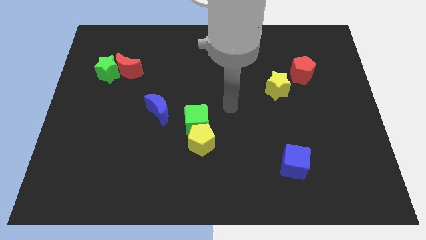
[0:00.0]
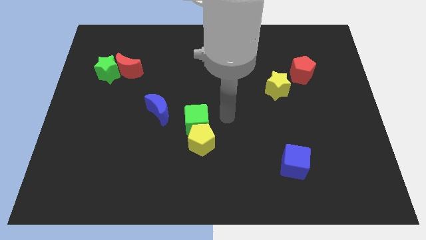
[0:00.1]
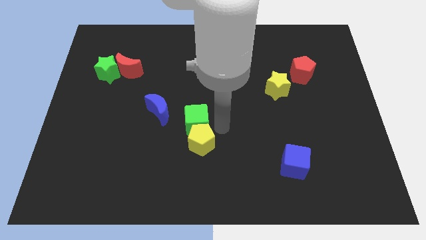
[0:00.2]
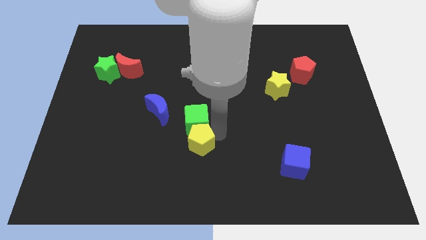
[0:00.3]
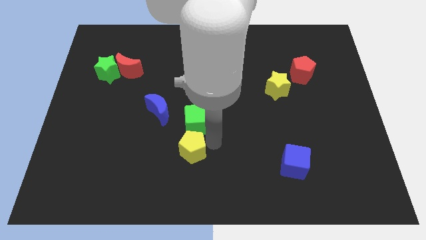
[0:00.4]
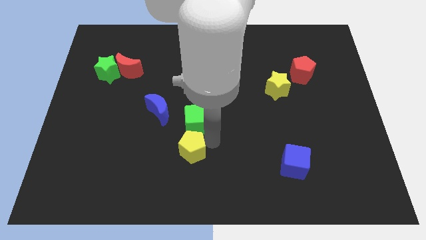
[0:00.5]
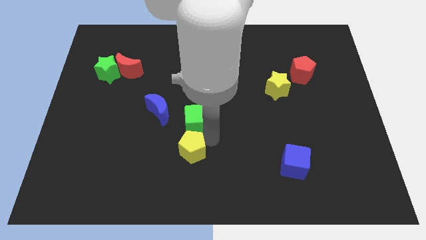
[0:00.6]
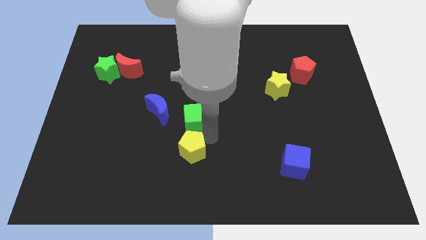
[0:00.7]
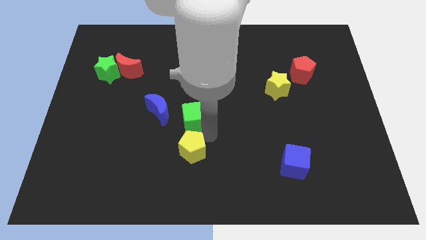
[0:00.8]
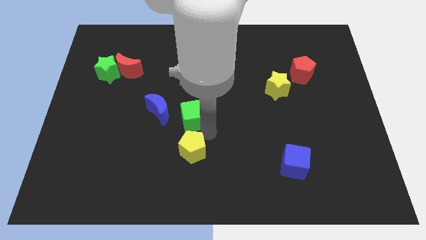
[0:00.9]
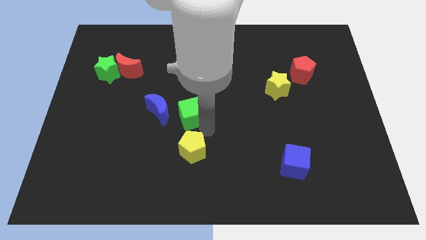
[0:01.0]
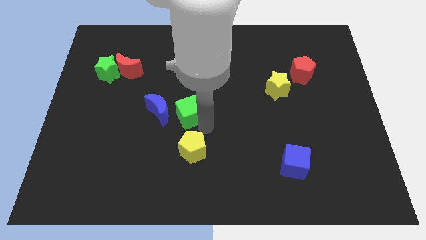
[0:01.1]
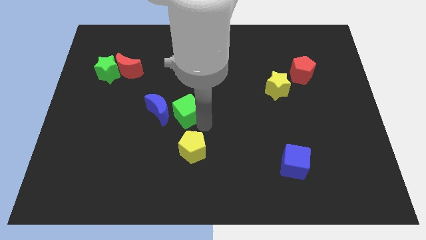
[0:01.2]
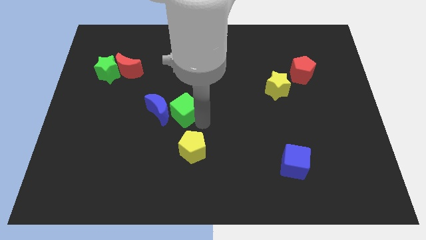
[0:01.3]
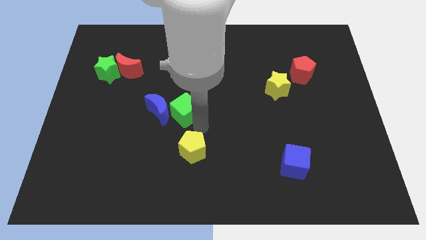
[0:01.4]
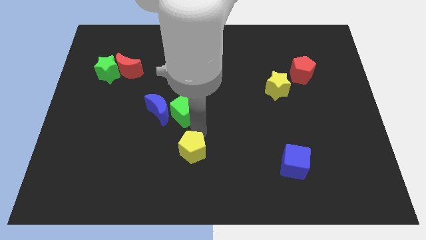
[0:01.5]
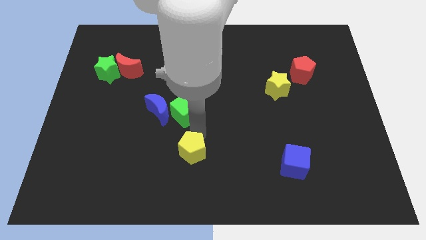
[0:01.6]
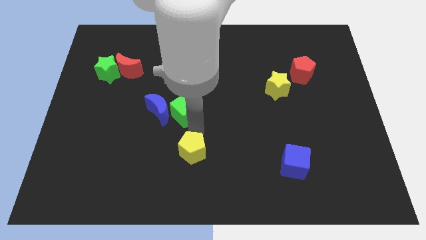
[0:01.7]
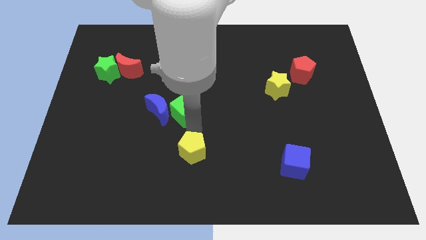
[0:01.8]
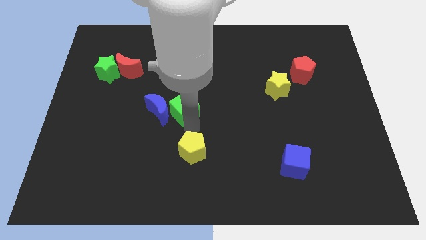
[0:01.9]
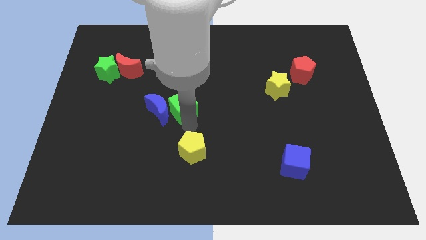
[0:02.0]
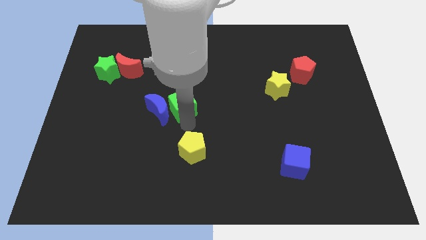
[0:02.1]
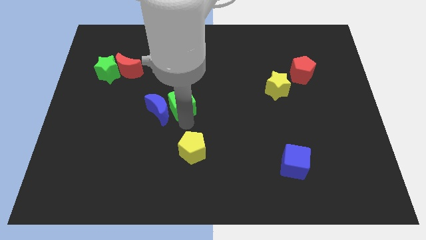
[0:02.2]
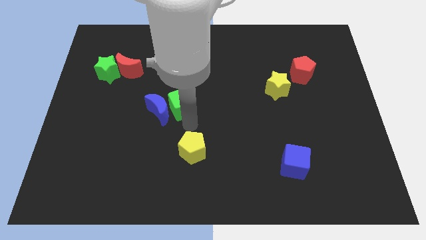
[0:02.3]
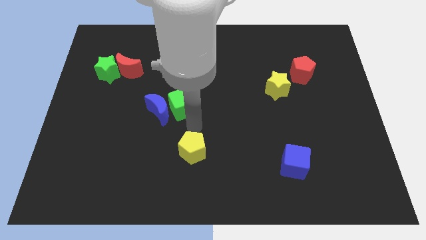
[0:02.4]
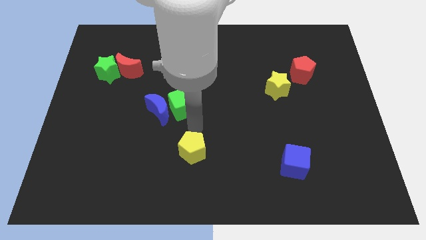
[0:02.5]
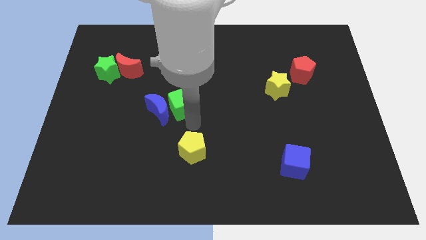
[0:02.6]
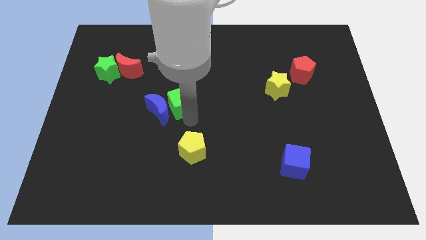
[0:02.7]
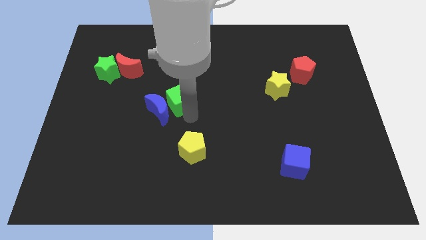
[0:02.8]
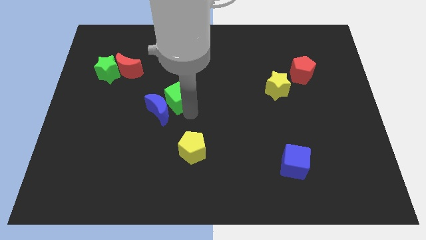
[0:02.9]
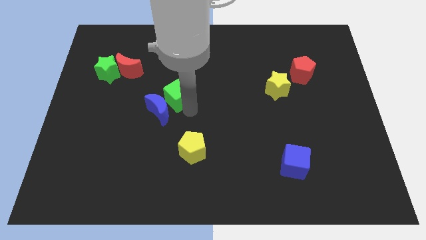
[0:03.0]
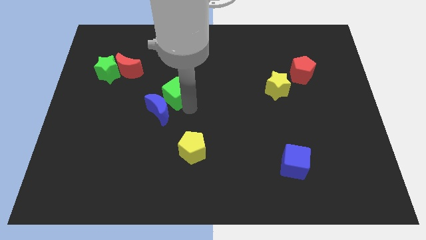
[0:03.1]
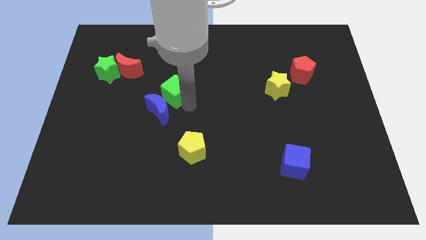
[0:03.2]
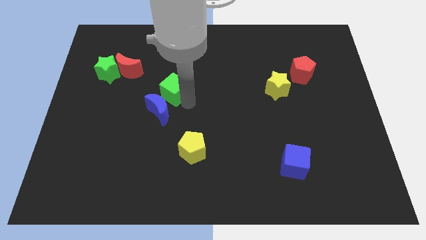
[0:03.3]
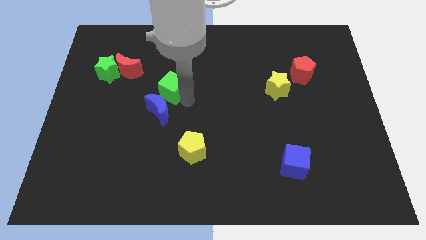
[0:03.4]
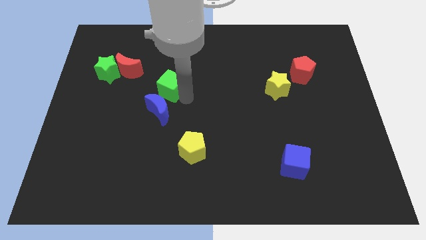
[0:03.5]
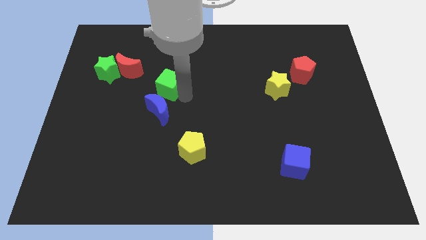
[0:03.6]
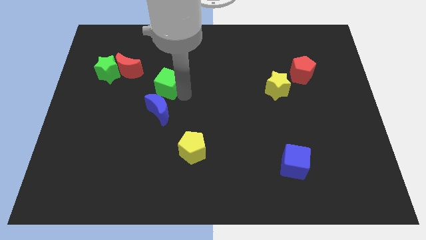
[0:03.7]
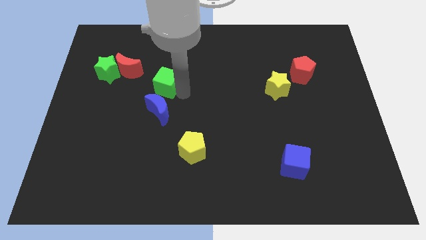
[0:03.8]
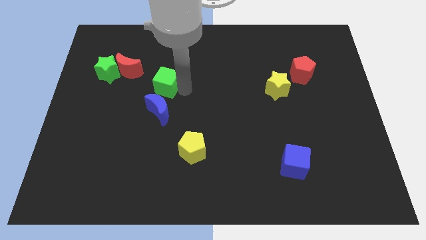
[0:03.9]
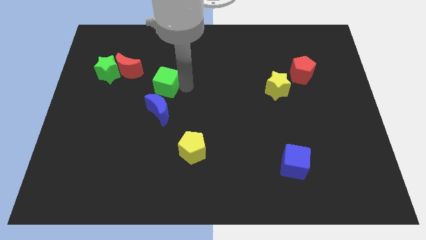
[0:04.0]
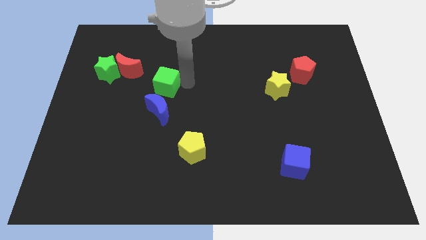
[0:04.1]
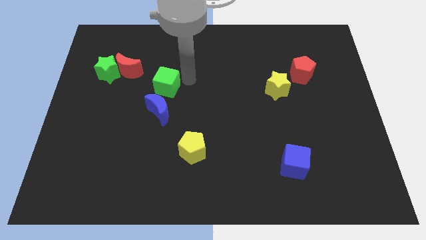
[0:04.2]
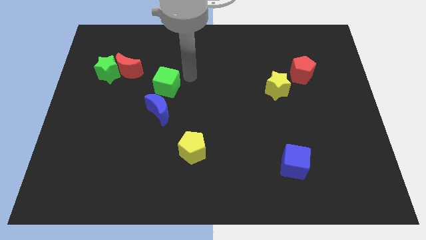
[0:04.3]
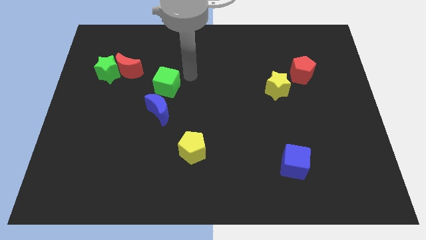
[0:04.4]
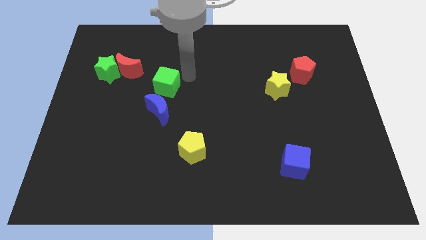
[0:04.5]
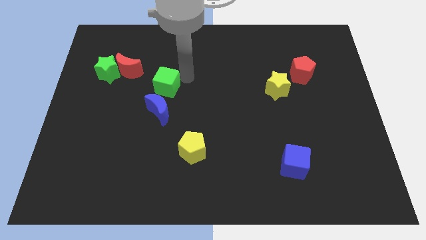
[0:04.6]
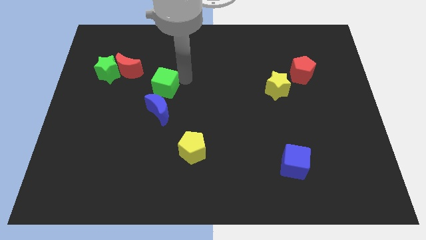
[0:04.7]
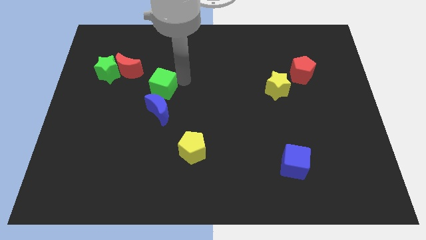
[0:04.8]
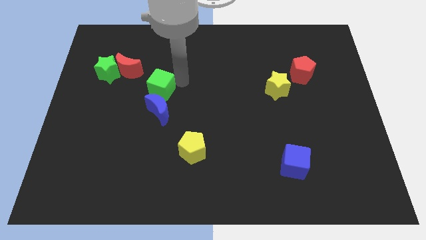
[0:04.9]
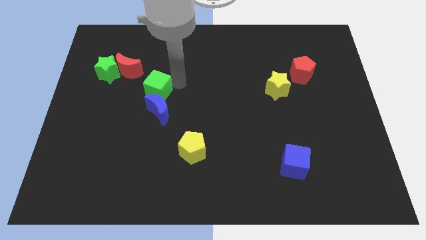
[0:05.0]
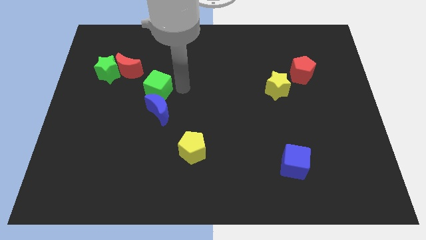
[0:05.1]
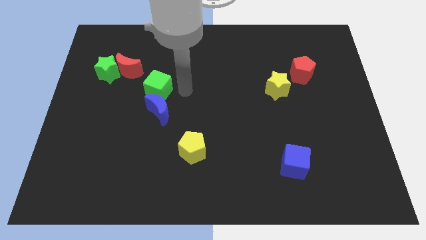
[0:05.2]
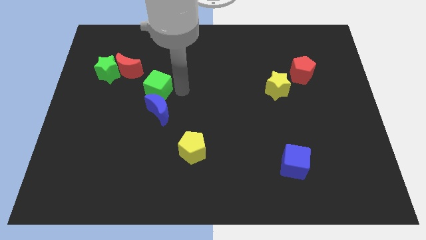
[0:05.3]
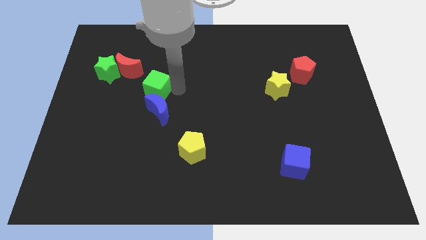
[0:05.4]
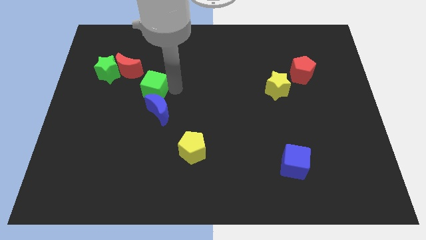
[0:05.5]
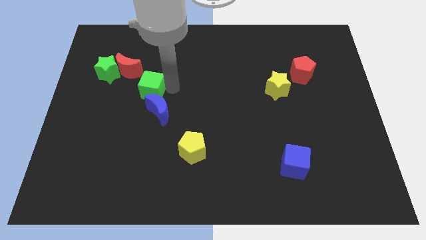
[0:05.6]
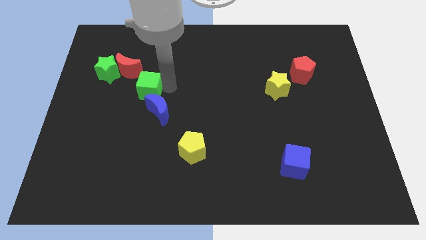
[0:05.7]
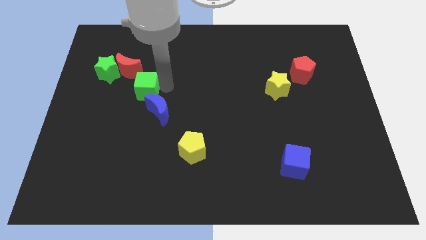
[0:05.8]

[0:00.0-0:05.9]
move the green cube to the bottom right of the green star

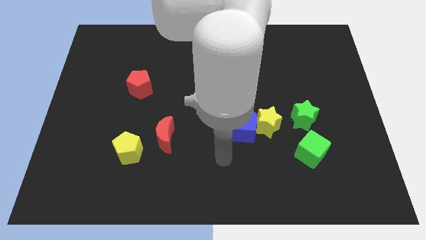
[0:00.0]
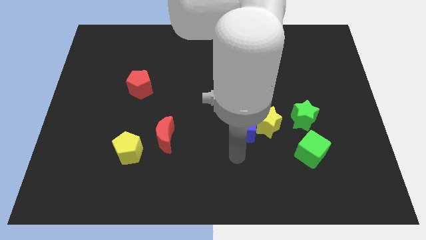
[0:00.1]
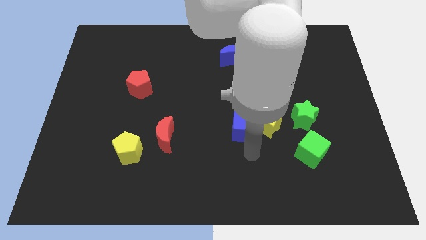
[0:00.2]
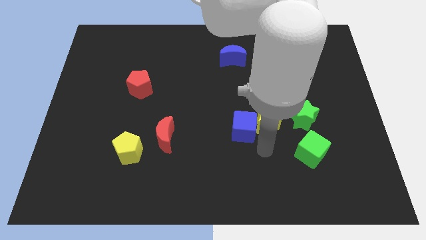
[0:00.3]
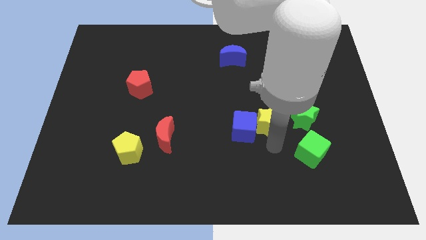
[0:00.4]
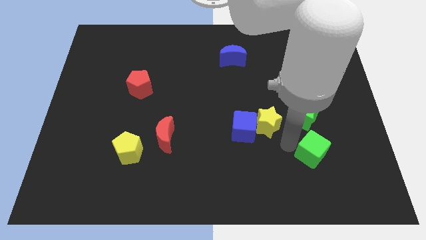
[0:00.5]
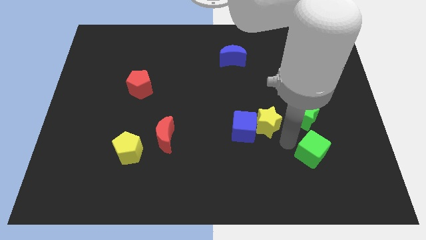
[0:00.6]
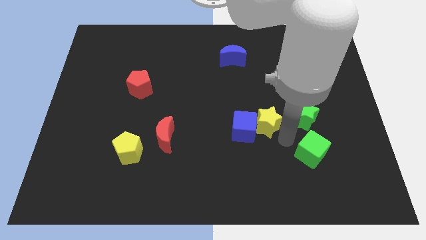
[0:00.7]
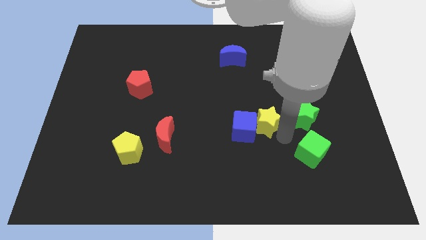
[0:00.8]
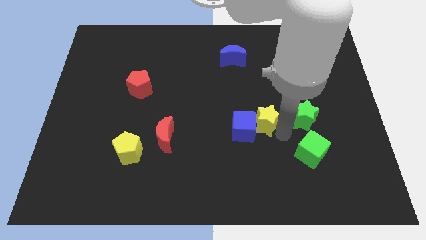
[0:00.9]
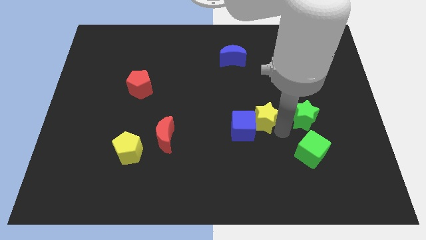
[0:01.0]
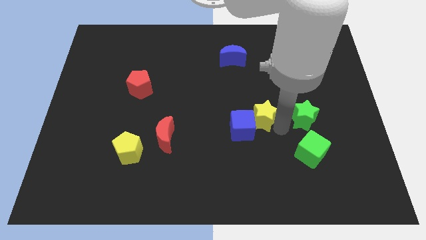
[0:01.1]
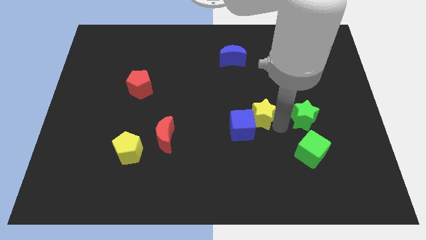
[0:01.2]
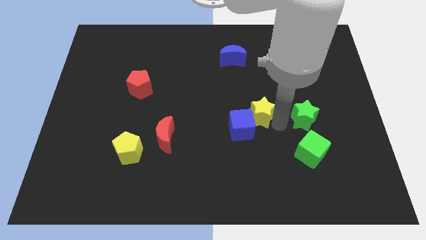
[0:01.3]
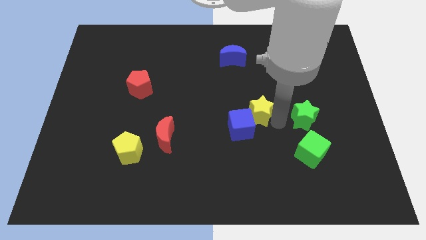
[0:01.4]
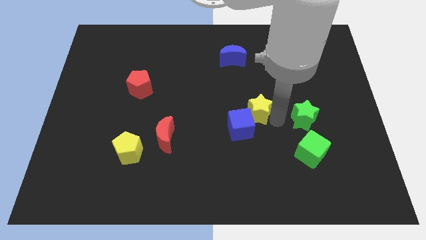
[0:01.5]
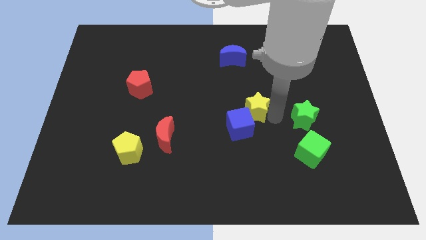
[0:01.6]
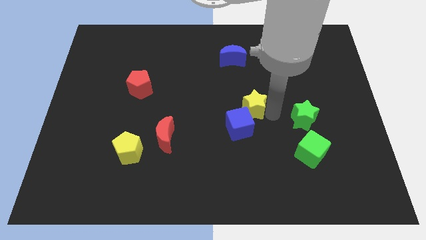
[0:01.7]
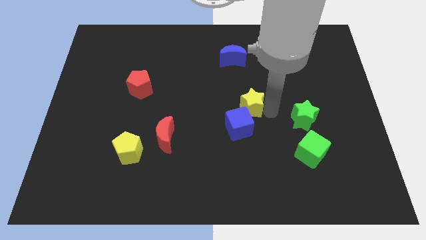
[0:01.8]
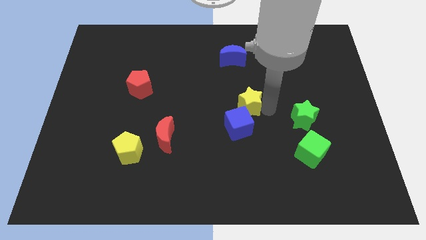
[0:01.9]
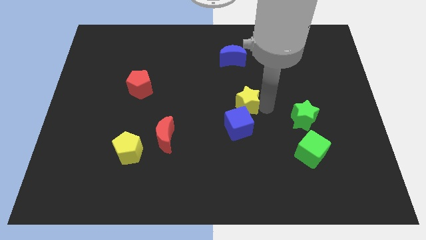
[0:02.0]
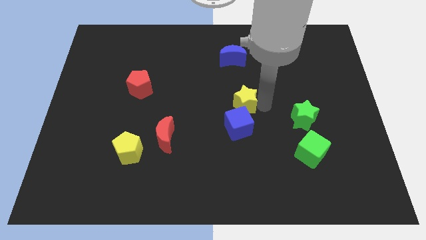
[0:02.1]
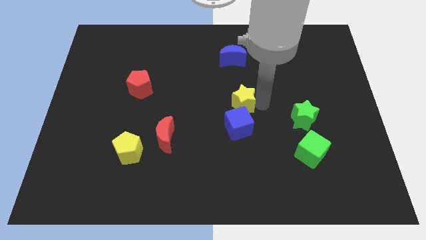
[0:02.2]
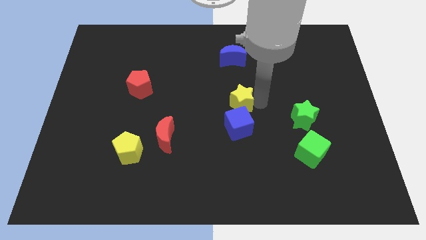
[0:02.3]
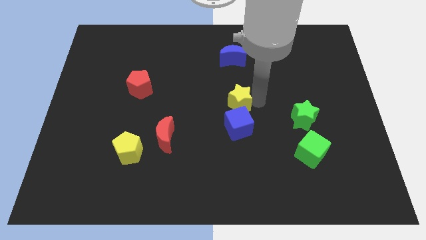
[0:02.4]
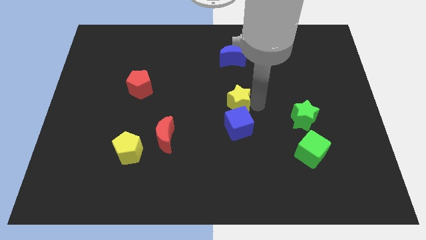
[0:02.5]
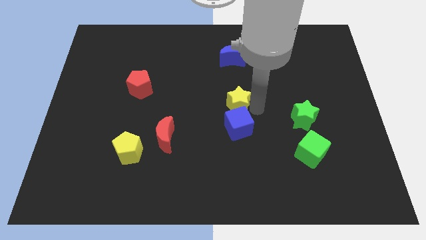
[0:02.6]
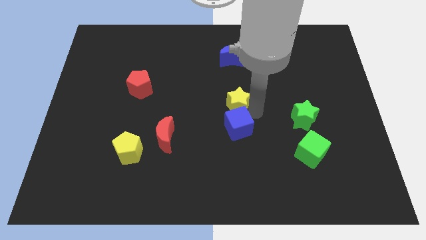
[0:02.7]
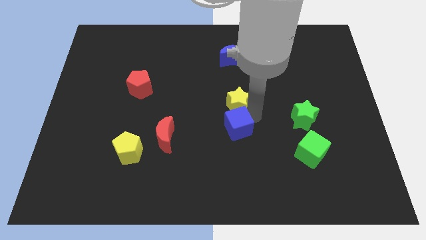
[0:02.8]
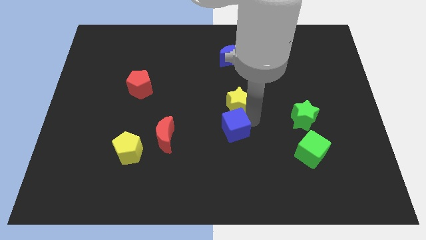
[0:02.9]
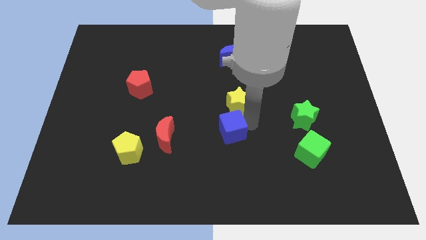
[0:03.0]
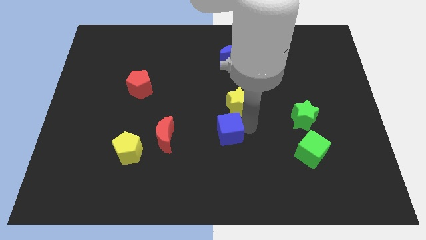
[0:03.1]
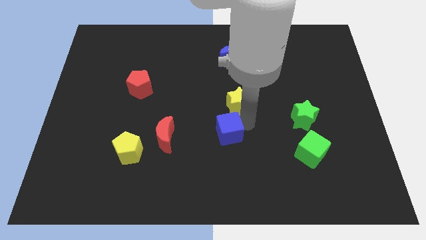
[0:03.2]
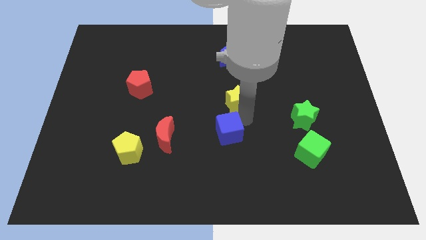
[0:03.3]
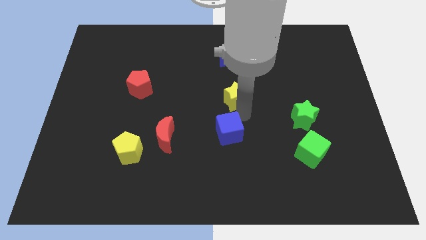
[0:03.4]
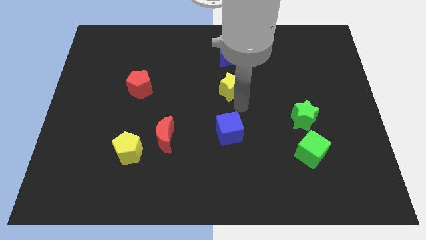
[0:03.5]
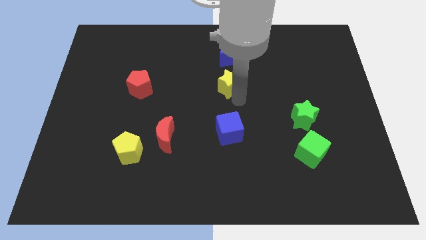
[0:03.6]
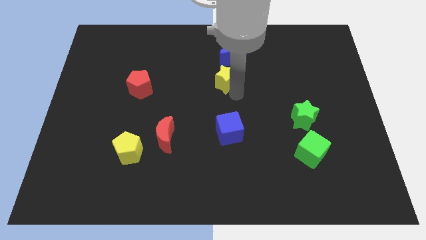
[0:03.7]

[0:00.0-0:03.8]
put the yellow star diagonally down and to the left of the blue moon
